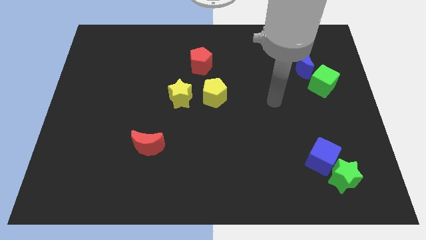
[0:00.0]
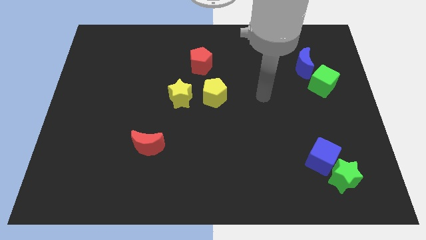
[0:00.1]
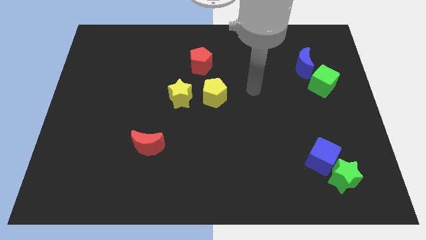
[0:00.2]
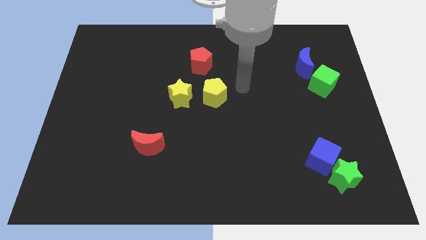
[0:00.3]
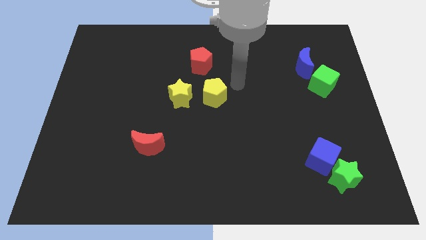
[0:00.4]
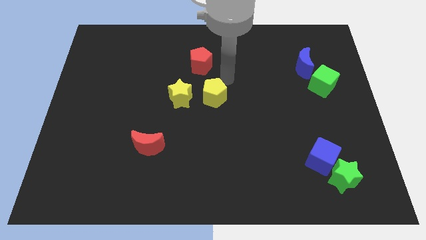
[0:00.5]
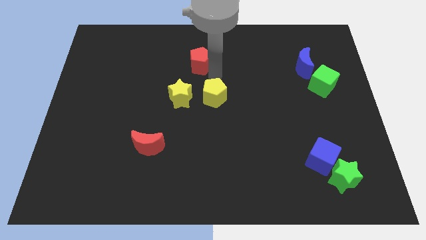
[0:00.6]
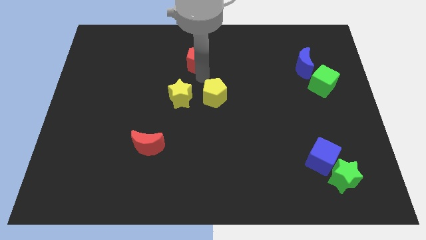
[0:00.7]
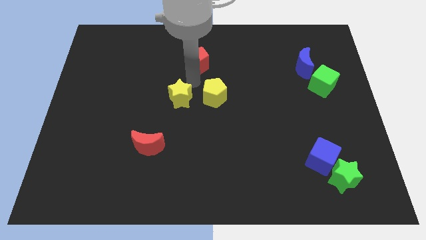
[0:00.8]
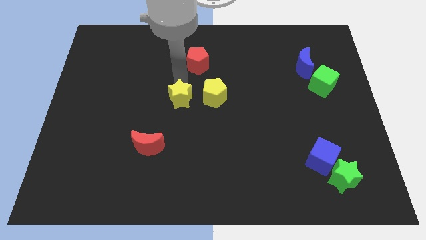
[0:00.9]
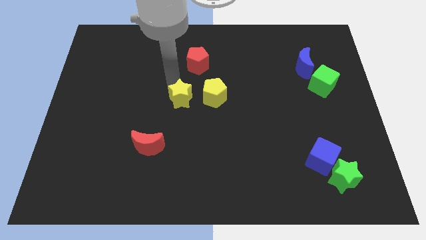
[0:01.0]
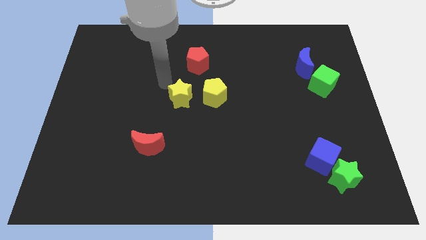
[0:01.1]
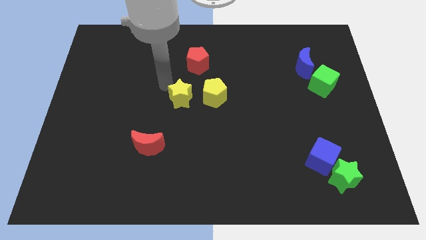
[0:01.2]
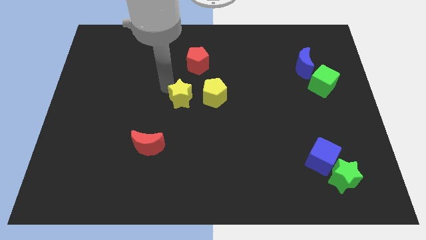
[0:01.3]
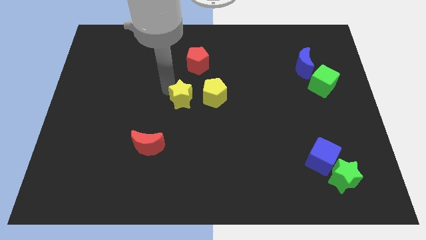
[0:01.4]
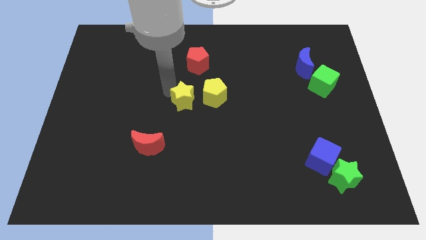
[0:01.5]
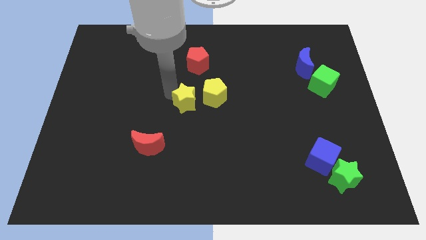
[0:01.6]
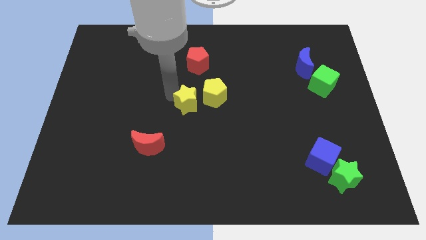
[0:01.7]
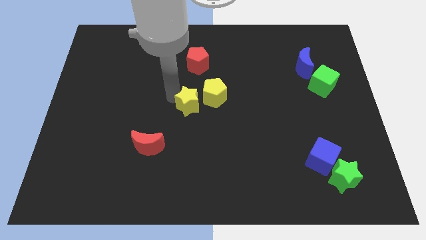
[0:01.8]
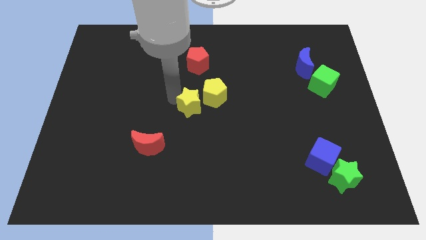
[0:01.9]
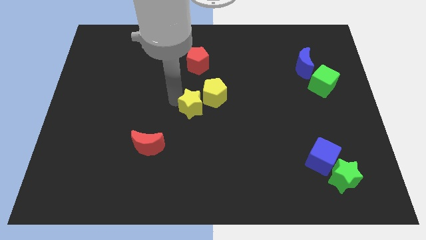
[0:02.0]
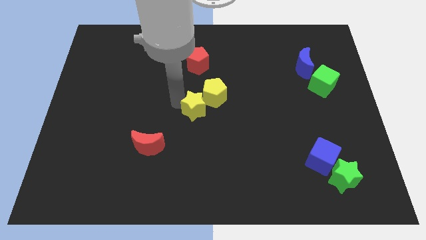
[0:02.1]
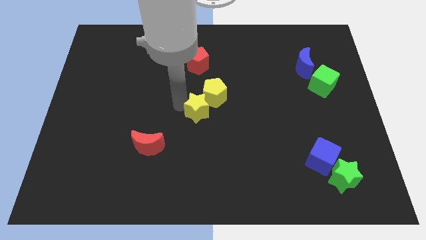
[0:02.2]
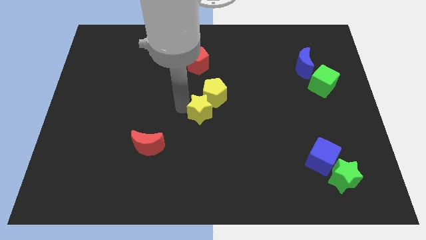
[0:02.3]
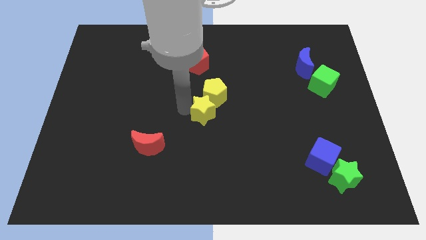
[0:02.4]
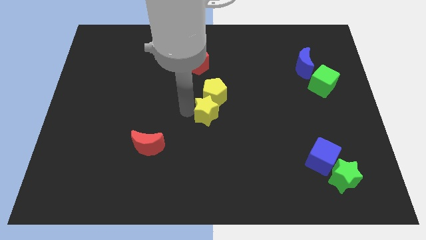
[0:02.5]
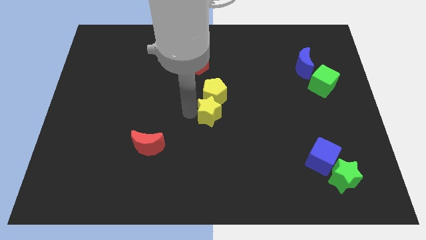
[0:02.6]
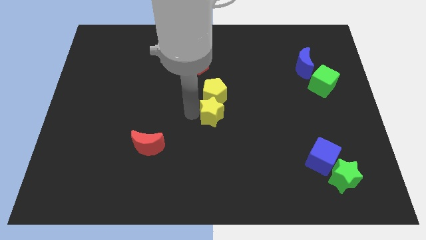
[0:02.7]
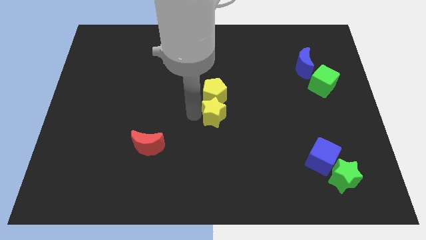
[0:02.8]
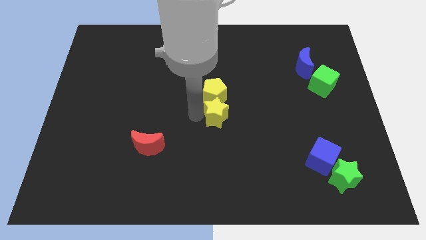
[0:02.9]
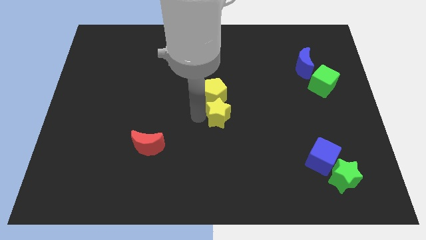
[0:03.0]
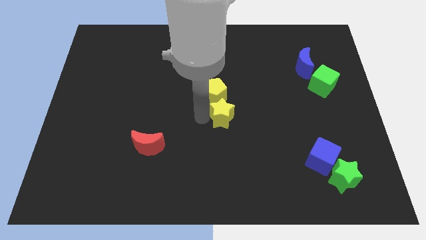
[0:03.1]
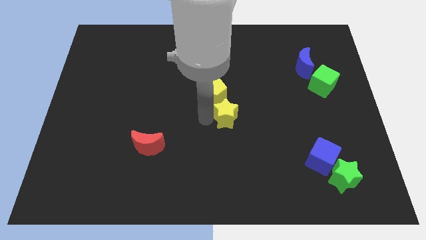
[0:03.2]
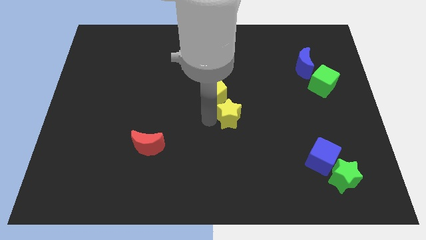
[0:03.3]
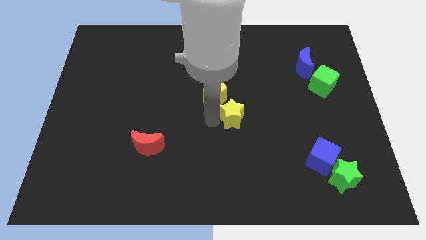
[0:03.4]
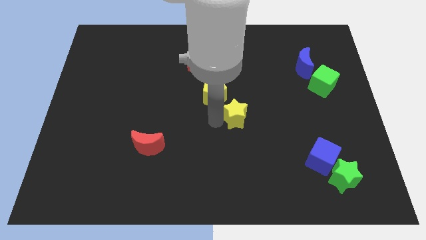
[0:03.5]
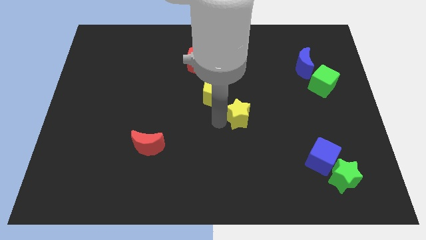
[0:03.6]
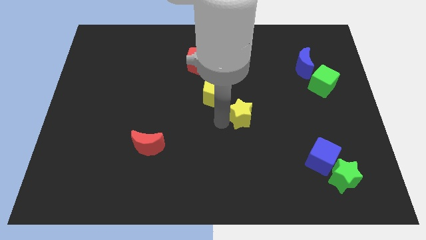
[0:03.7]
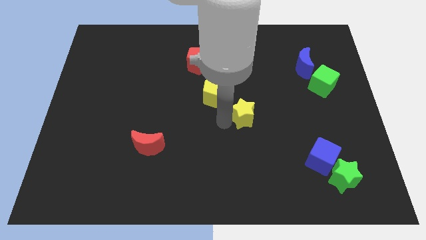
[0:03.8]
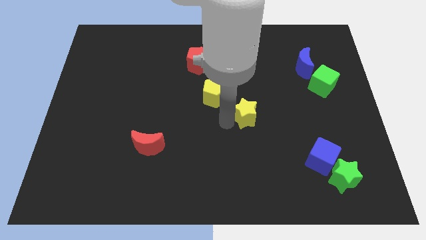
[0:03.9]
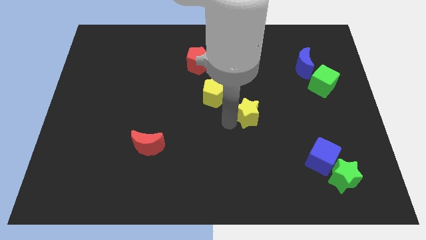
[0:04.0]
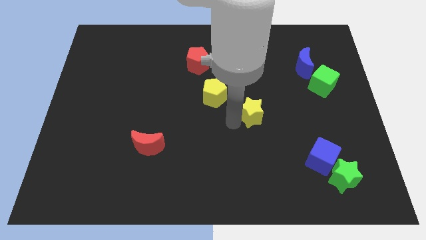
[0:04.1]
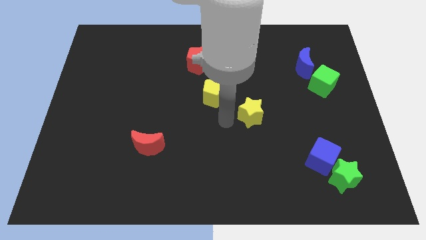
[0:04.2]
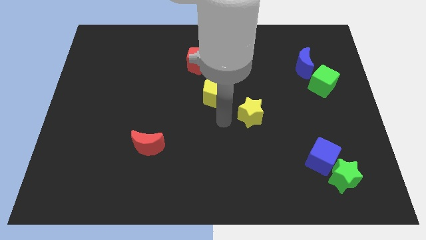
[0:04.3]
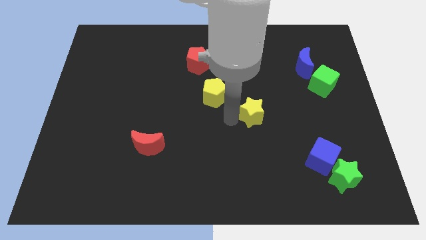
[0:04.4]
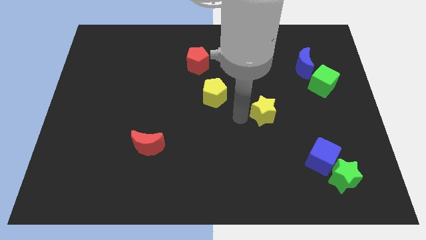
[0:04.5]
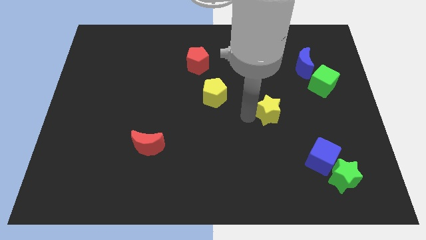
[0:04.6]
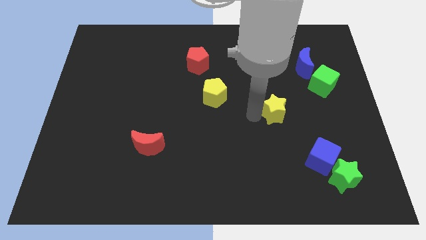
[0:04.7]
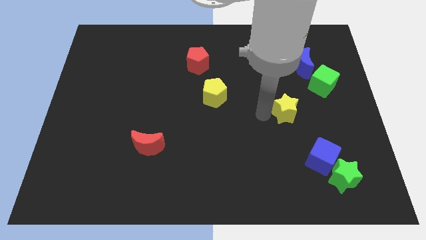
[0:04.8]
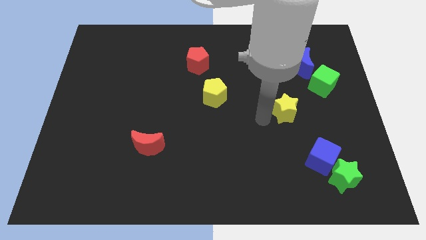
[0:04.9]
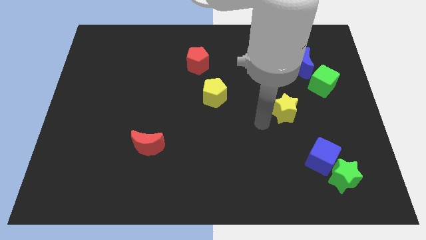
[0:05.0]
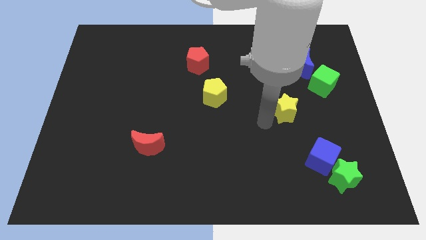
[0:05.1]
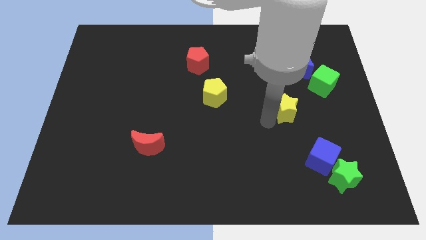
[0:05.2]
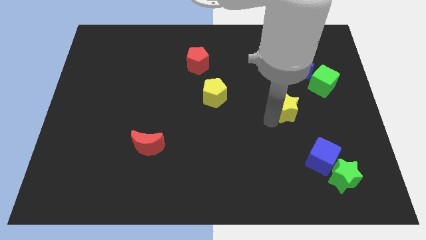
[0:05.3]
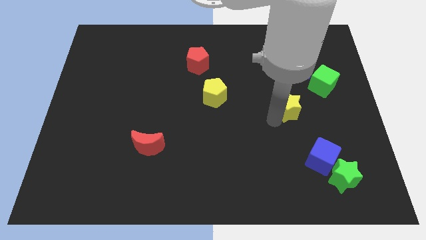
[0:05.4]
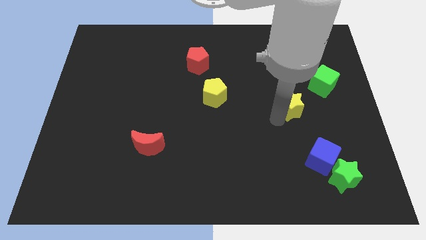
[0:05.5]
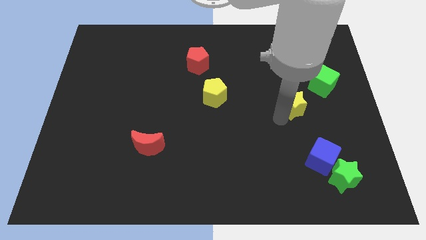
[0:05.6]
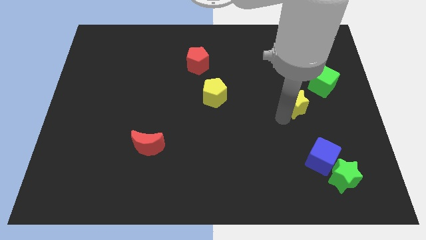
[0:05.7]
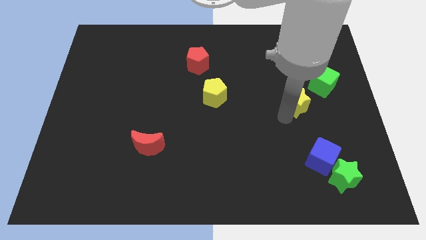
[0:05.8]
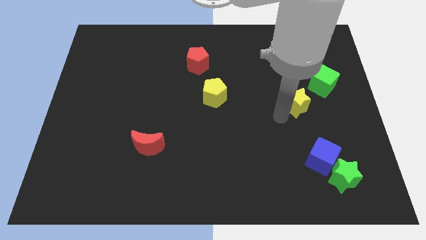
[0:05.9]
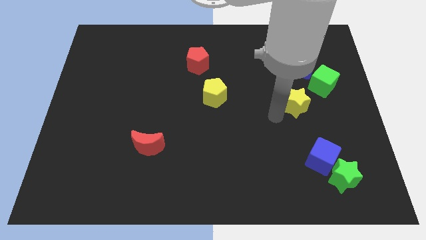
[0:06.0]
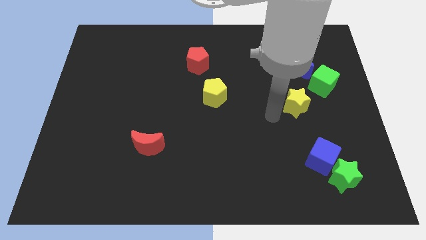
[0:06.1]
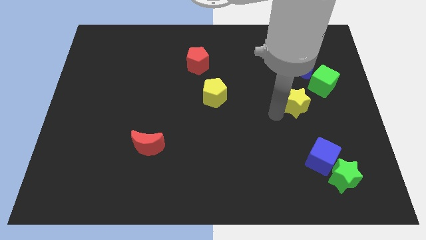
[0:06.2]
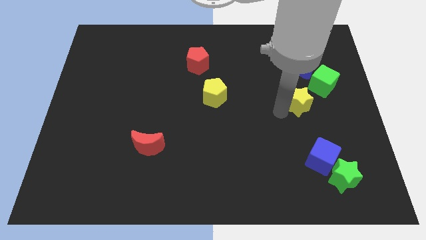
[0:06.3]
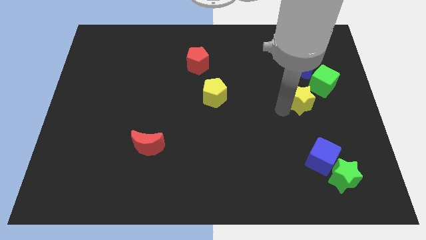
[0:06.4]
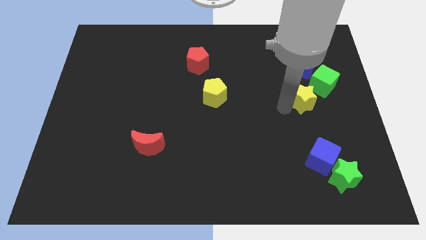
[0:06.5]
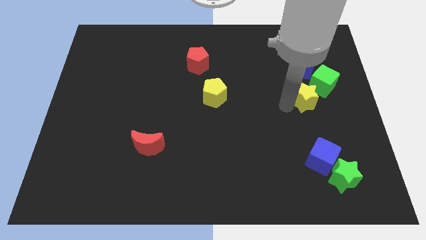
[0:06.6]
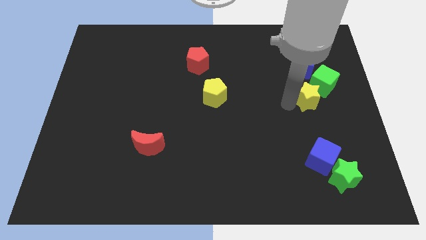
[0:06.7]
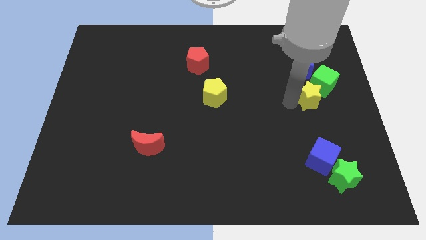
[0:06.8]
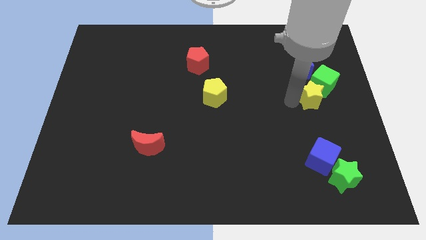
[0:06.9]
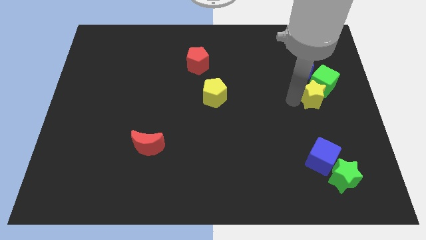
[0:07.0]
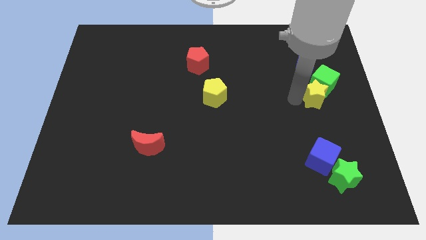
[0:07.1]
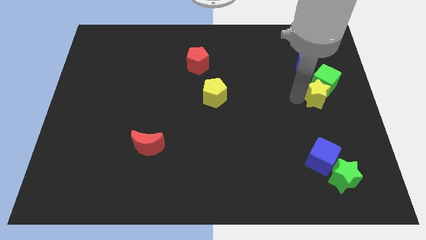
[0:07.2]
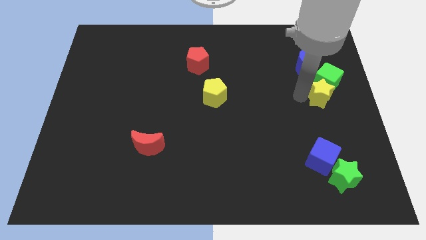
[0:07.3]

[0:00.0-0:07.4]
push the yellow star to the right side
